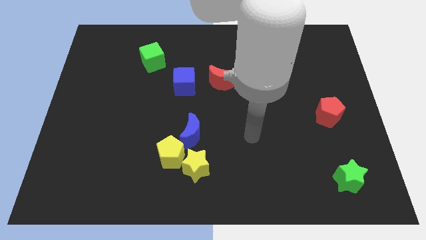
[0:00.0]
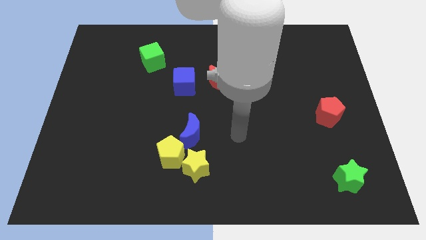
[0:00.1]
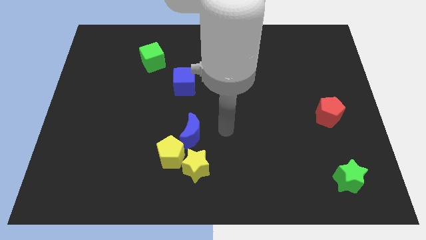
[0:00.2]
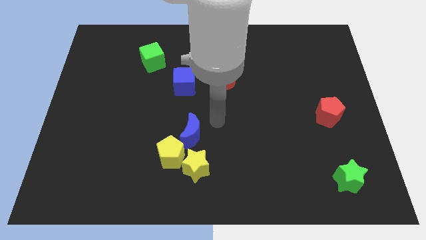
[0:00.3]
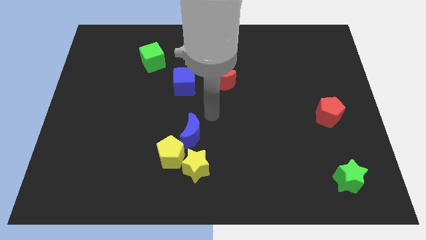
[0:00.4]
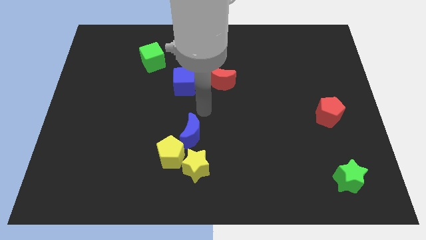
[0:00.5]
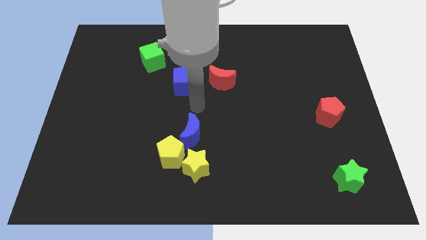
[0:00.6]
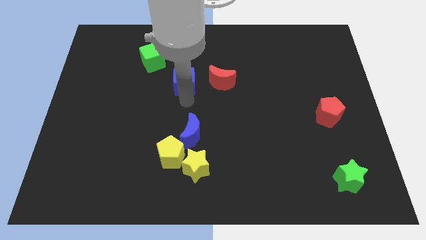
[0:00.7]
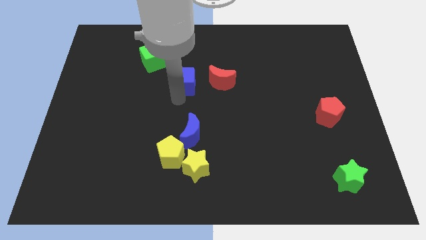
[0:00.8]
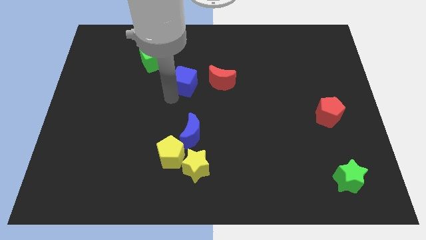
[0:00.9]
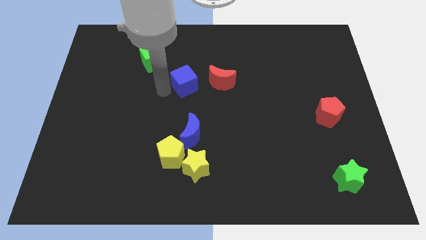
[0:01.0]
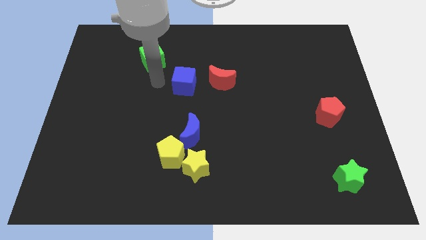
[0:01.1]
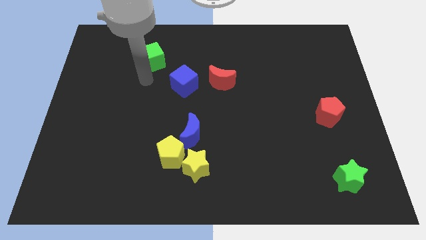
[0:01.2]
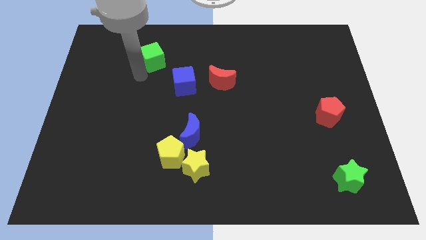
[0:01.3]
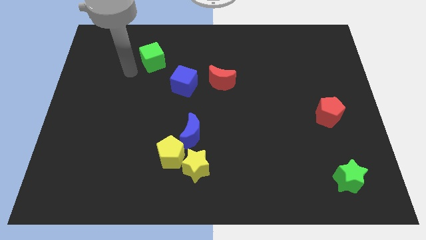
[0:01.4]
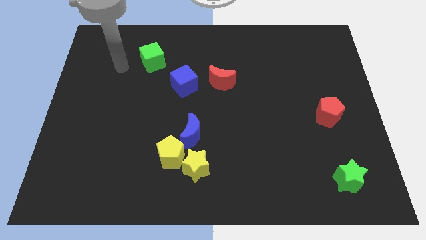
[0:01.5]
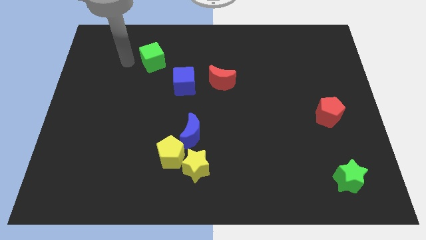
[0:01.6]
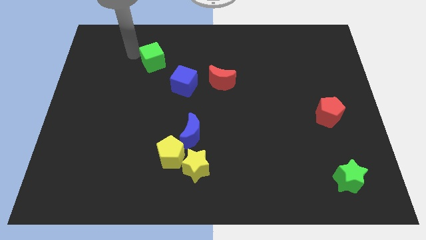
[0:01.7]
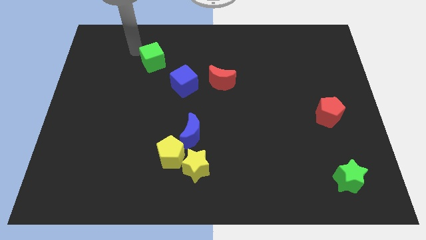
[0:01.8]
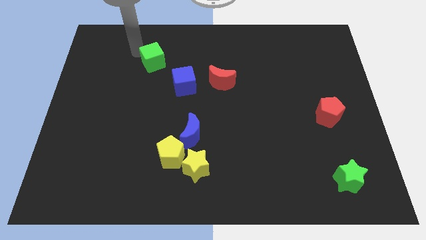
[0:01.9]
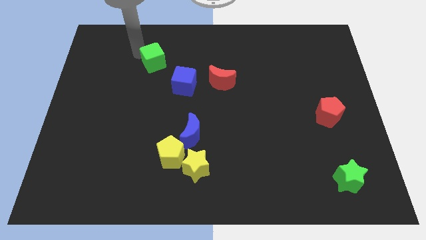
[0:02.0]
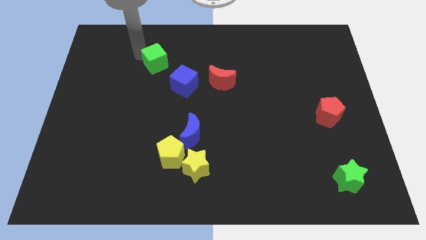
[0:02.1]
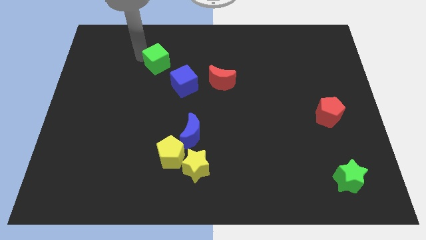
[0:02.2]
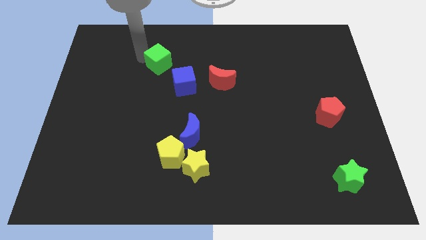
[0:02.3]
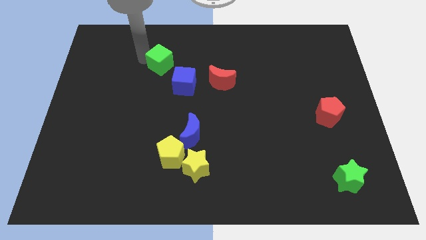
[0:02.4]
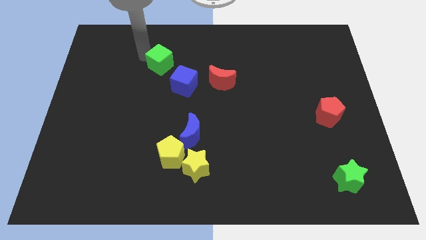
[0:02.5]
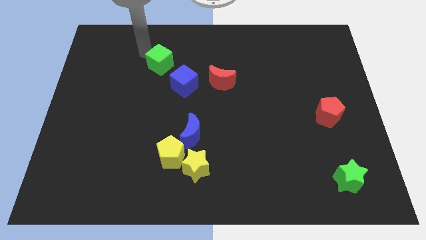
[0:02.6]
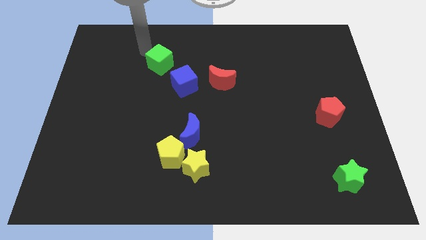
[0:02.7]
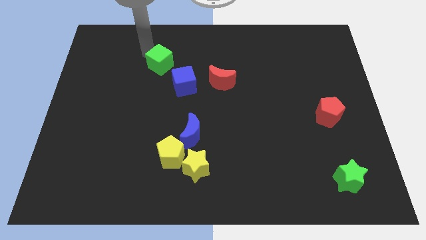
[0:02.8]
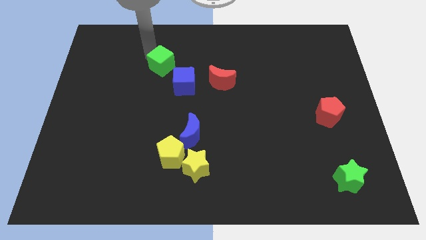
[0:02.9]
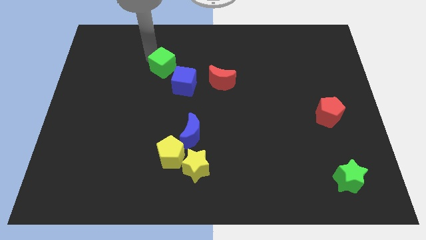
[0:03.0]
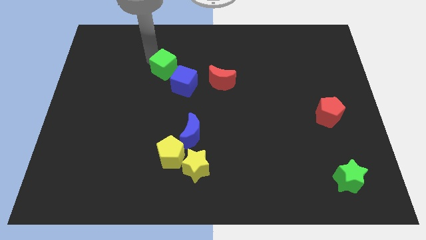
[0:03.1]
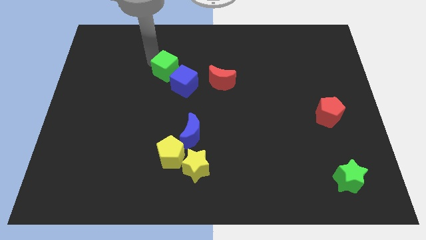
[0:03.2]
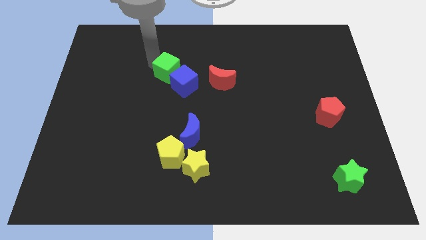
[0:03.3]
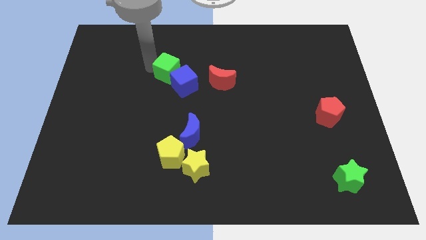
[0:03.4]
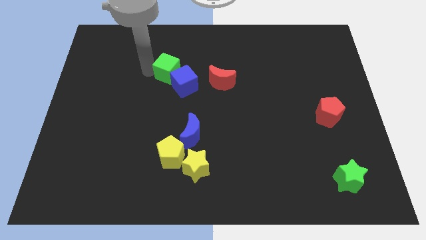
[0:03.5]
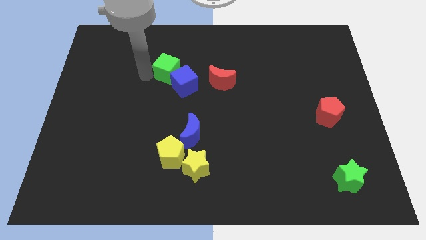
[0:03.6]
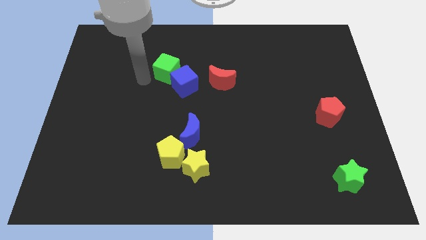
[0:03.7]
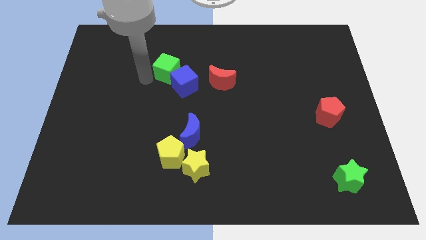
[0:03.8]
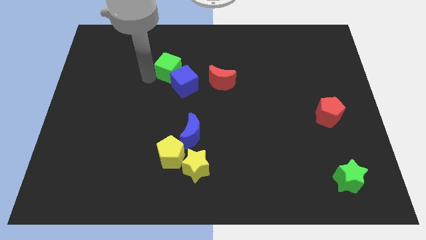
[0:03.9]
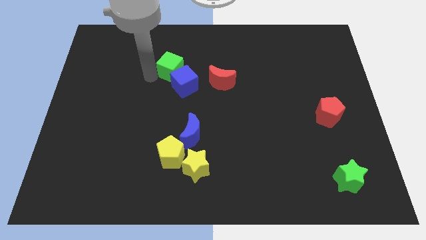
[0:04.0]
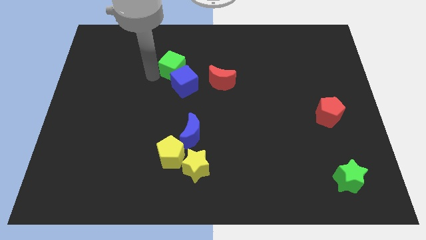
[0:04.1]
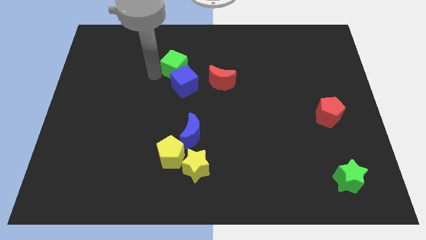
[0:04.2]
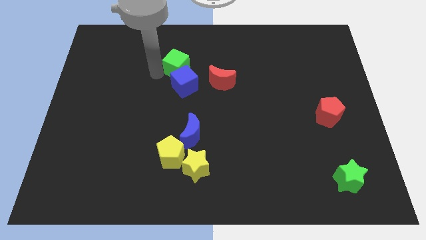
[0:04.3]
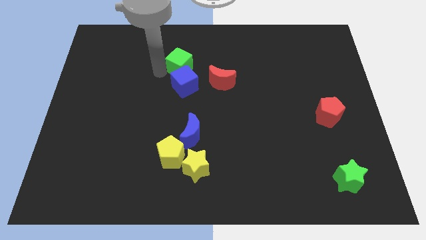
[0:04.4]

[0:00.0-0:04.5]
push the green cube to the right slightly

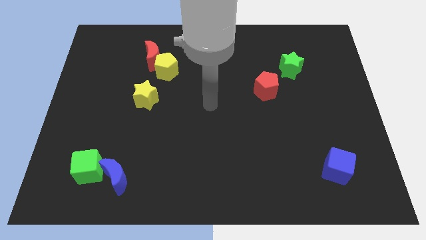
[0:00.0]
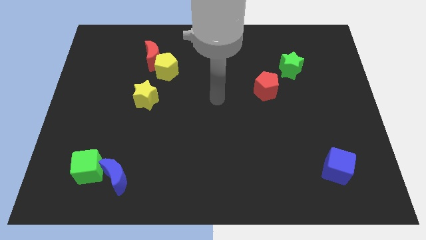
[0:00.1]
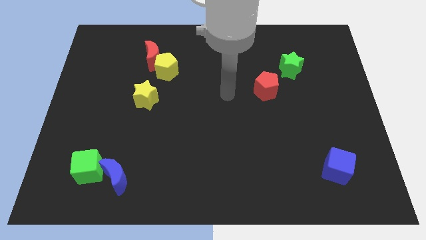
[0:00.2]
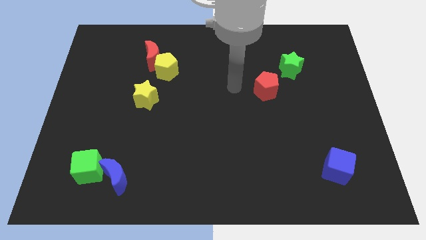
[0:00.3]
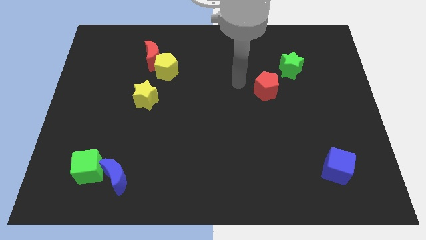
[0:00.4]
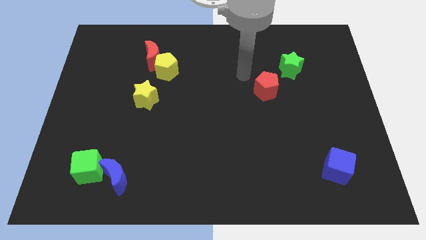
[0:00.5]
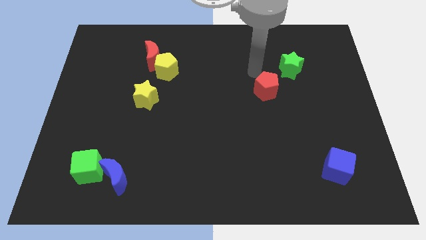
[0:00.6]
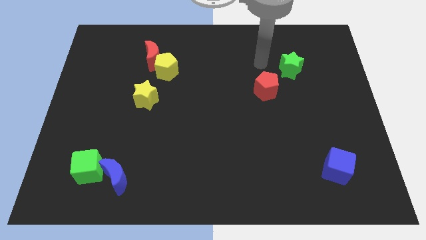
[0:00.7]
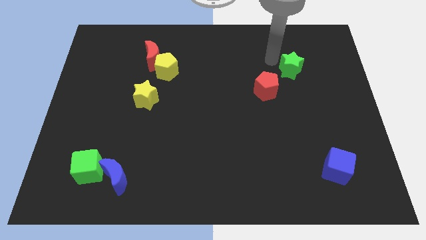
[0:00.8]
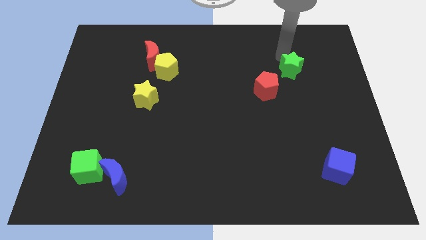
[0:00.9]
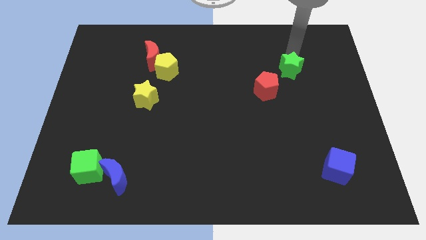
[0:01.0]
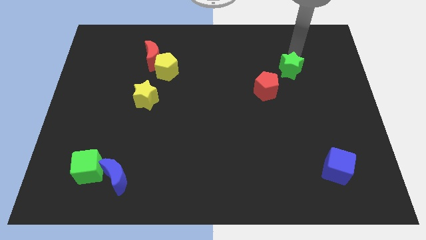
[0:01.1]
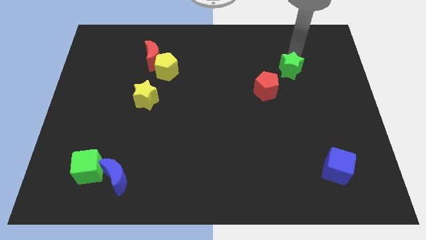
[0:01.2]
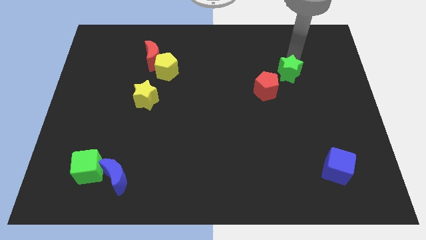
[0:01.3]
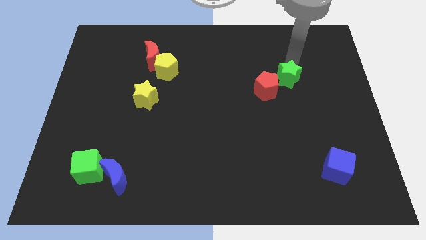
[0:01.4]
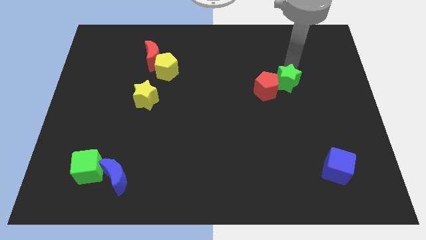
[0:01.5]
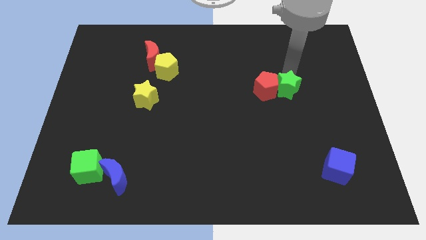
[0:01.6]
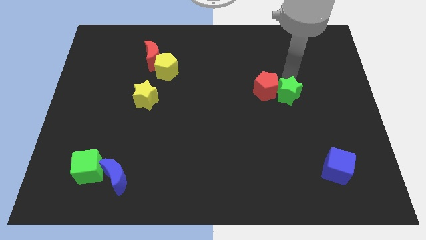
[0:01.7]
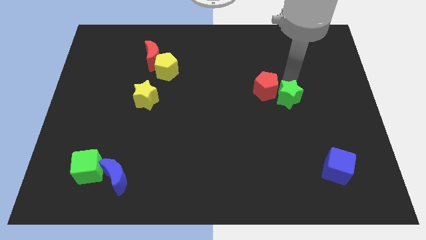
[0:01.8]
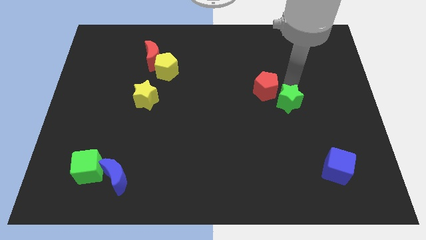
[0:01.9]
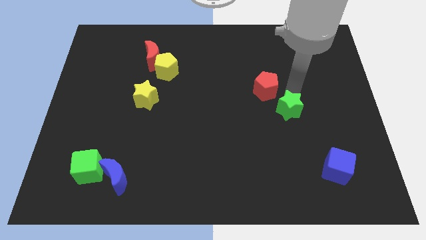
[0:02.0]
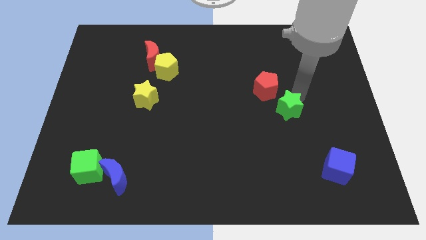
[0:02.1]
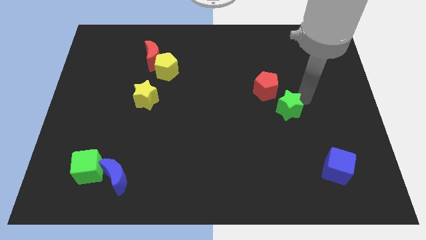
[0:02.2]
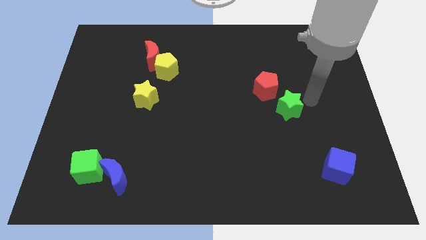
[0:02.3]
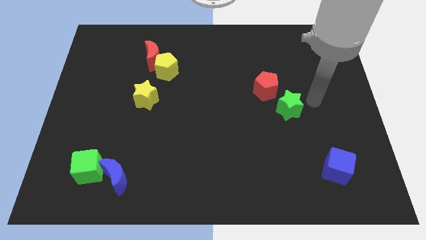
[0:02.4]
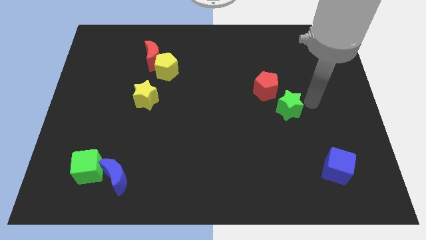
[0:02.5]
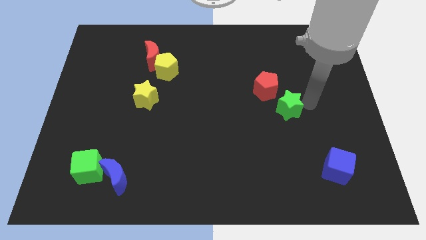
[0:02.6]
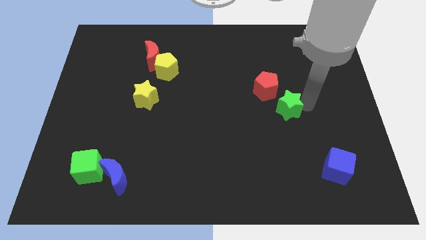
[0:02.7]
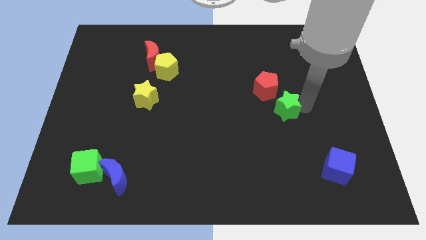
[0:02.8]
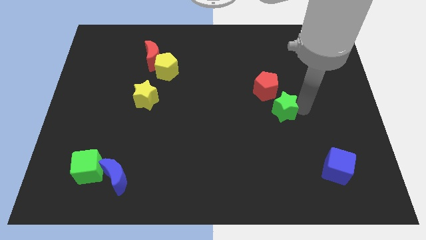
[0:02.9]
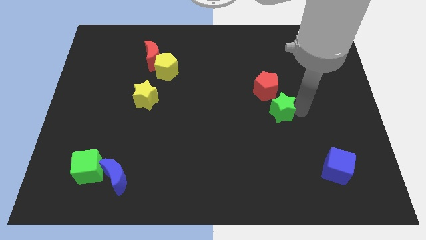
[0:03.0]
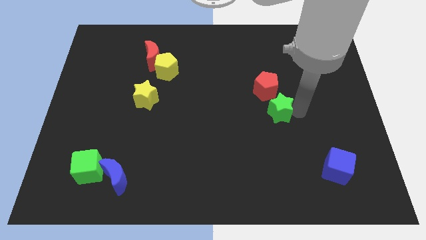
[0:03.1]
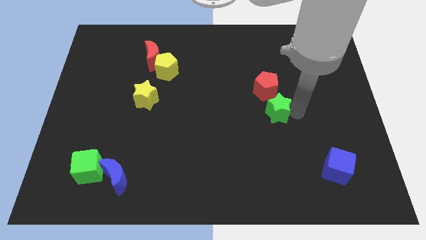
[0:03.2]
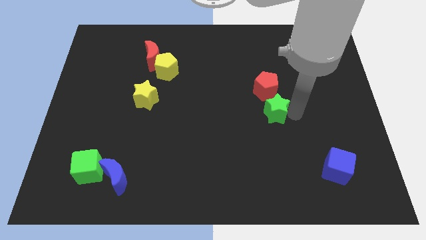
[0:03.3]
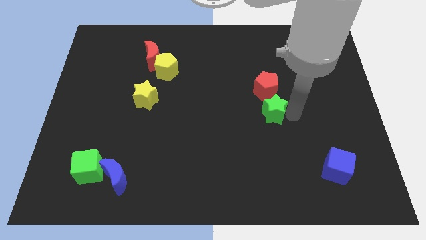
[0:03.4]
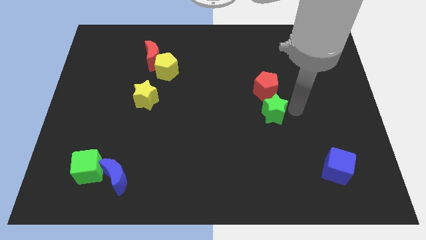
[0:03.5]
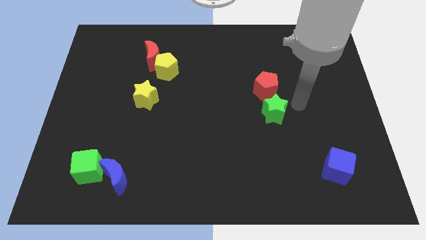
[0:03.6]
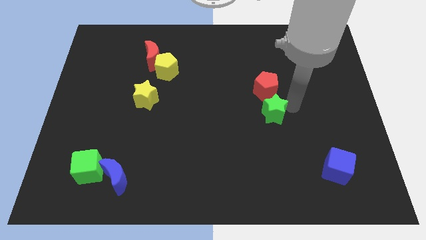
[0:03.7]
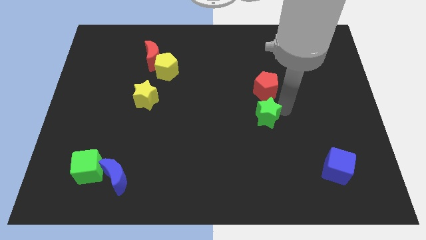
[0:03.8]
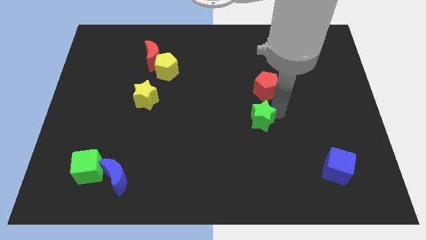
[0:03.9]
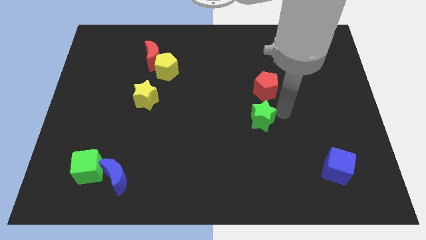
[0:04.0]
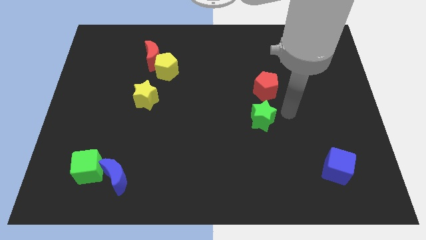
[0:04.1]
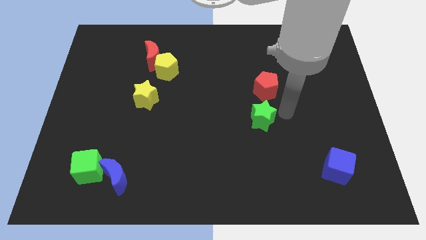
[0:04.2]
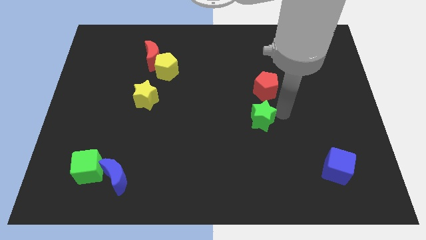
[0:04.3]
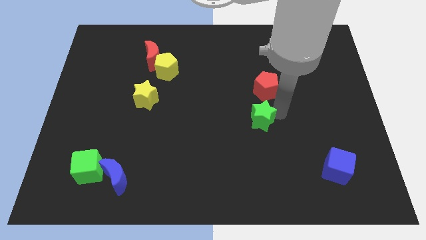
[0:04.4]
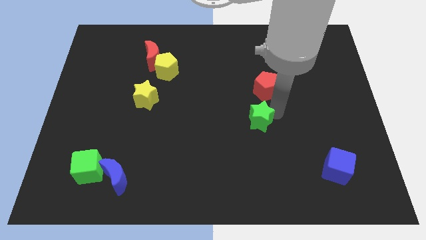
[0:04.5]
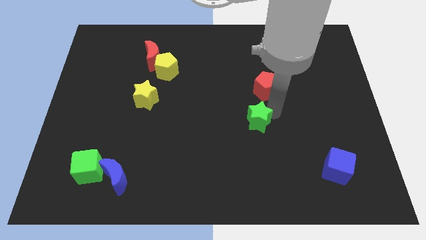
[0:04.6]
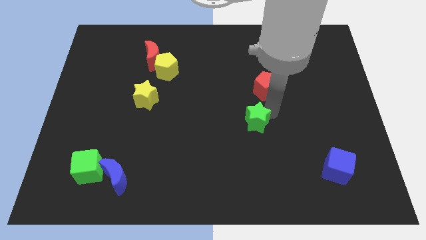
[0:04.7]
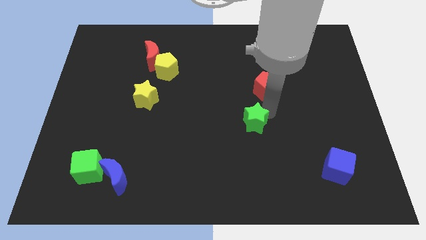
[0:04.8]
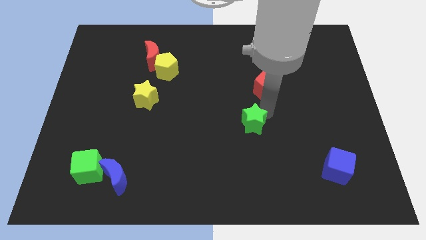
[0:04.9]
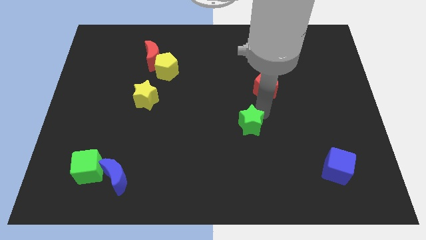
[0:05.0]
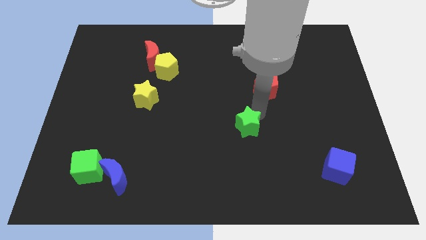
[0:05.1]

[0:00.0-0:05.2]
slide the green star downwards and to the left diagonally
